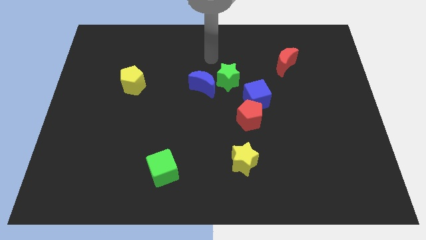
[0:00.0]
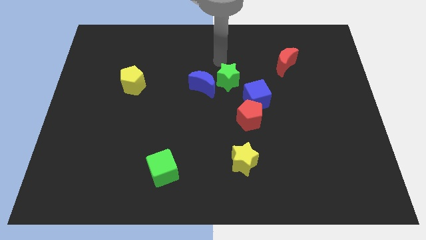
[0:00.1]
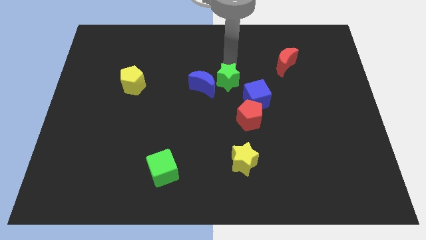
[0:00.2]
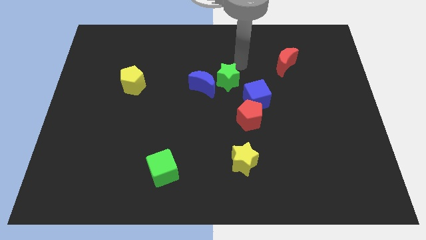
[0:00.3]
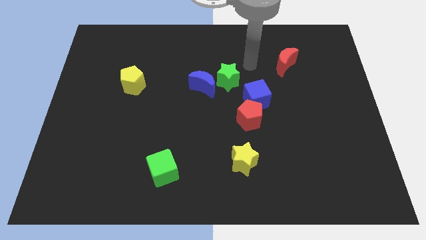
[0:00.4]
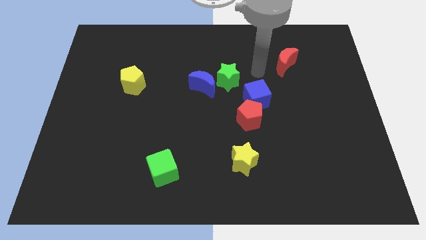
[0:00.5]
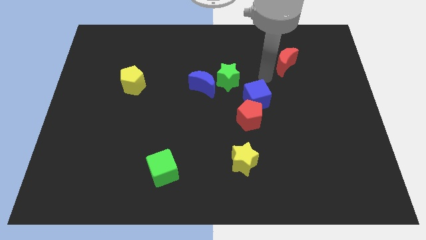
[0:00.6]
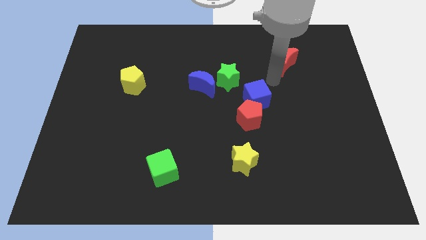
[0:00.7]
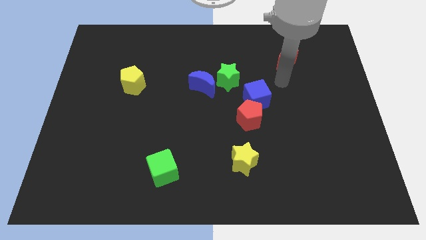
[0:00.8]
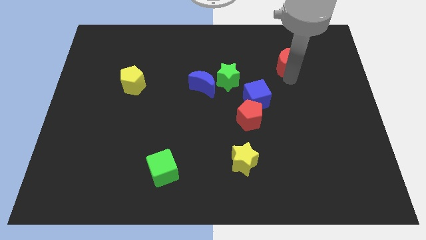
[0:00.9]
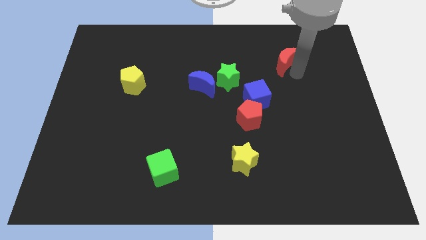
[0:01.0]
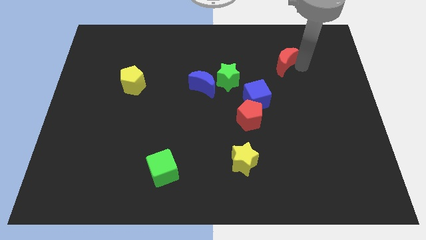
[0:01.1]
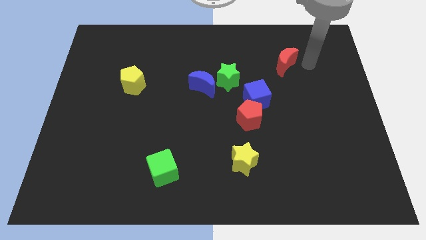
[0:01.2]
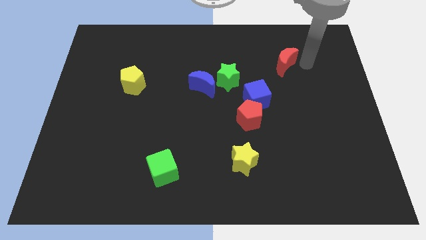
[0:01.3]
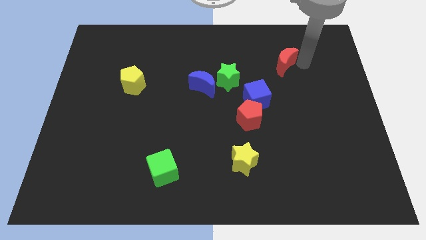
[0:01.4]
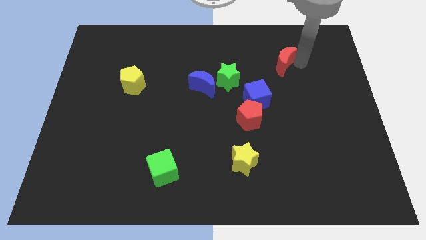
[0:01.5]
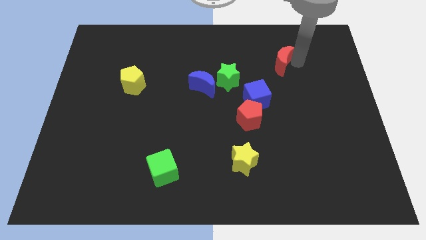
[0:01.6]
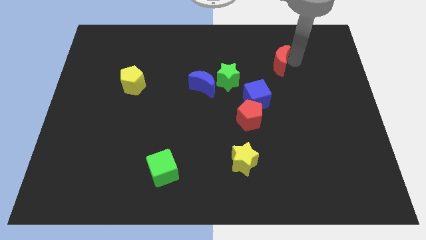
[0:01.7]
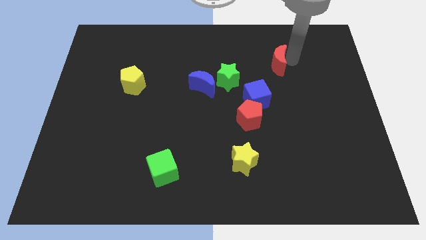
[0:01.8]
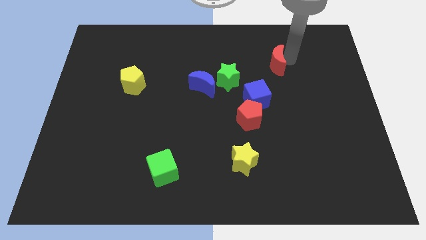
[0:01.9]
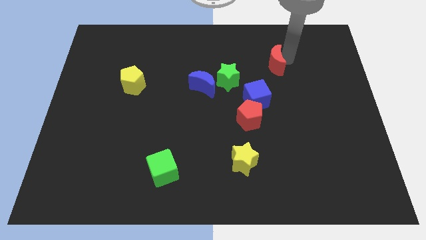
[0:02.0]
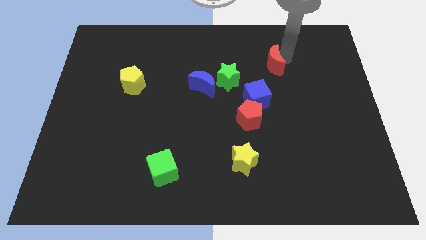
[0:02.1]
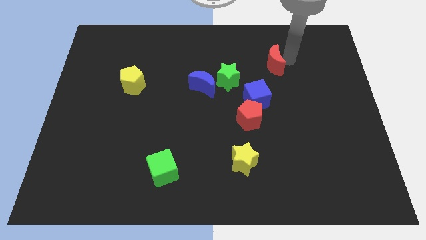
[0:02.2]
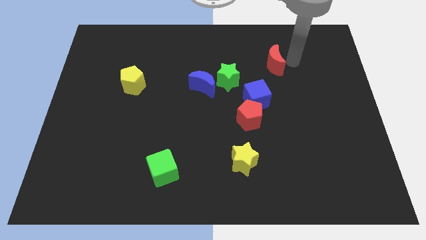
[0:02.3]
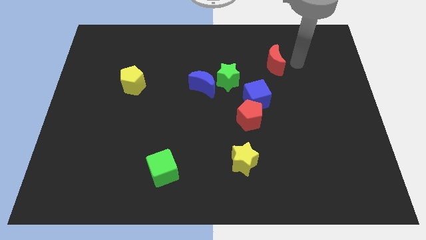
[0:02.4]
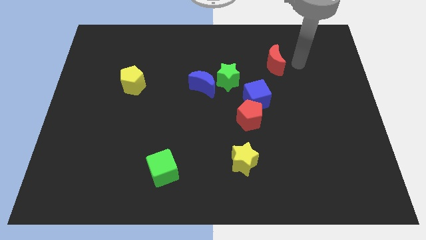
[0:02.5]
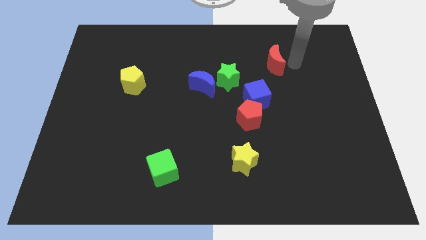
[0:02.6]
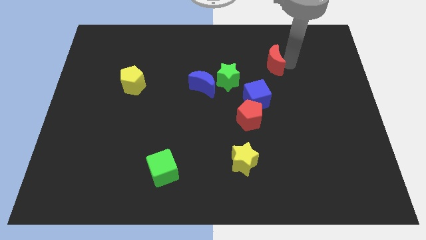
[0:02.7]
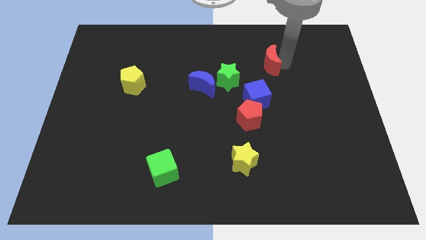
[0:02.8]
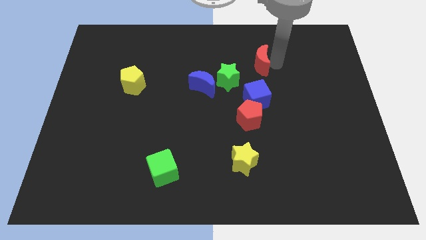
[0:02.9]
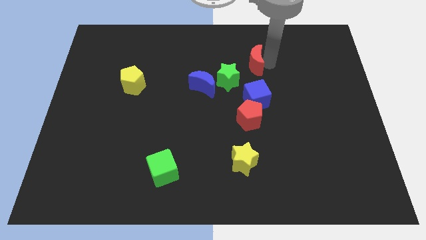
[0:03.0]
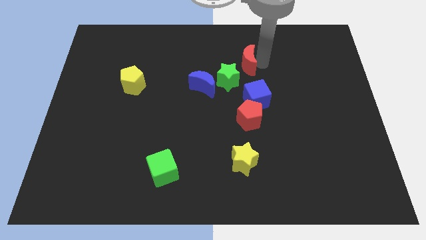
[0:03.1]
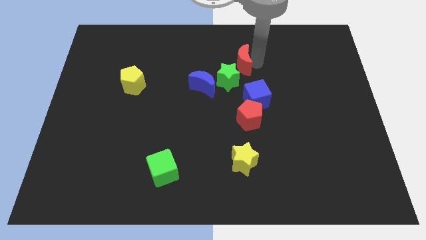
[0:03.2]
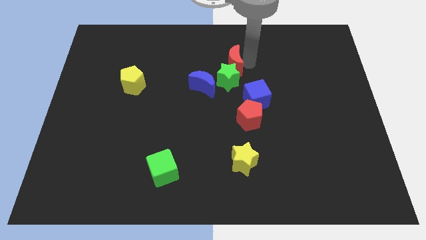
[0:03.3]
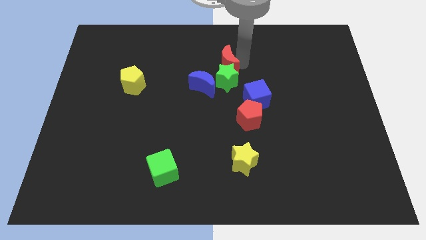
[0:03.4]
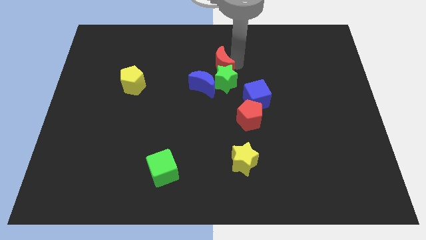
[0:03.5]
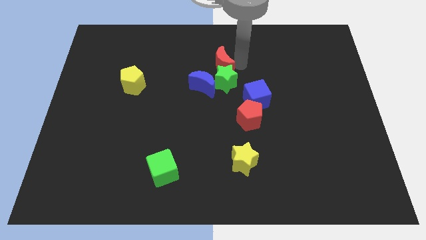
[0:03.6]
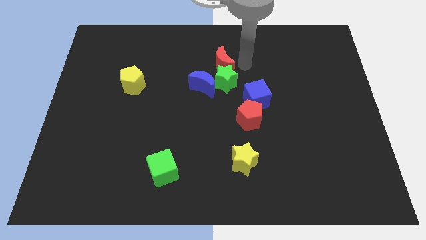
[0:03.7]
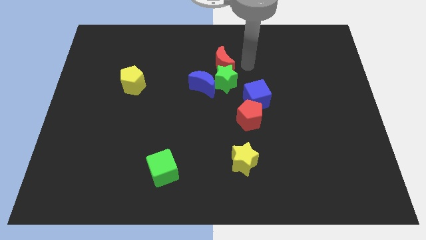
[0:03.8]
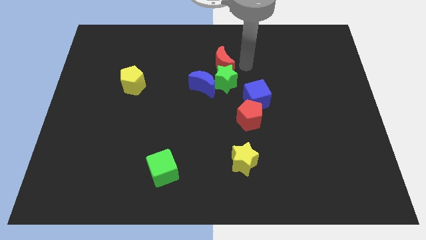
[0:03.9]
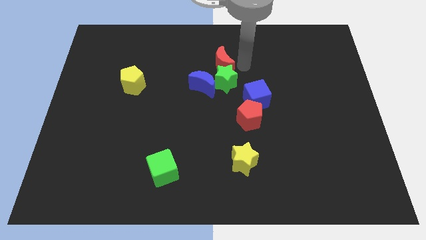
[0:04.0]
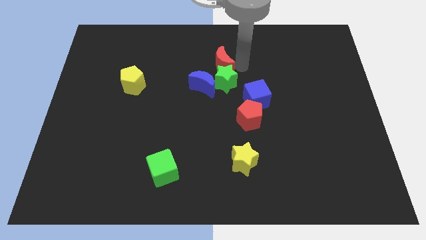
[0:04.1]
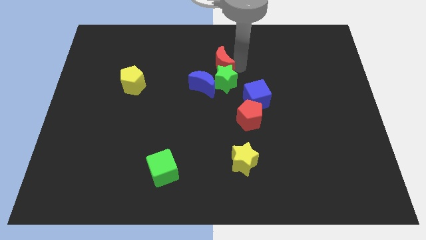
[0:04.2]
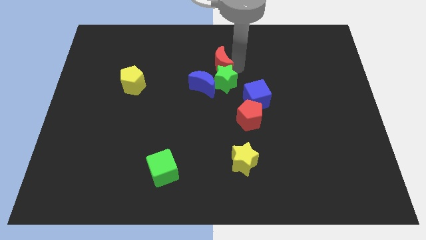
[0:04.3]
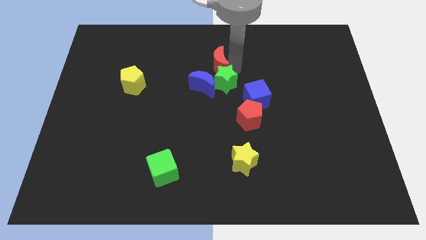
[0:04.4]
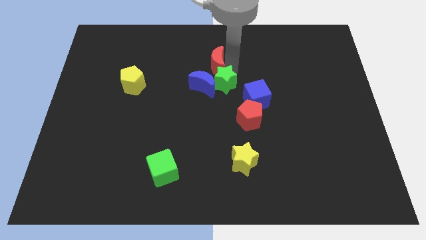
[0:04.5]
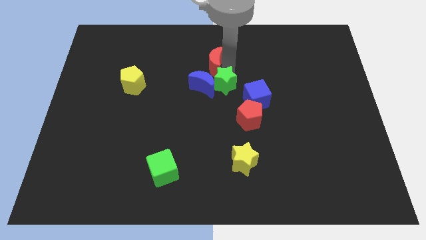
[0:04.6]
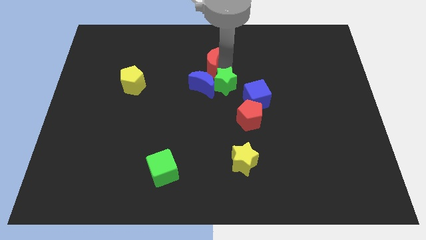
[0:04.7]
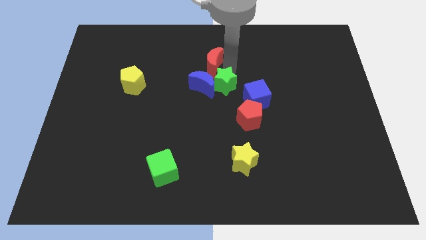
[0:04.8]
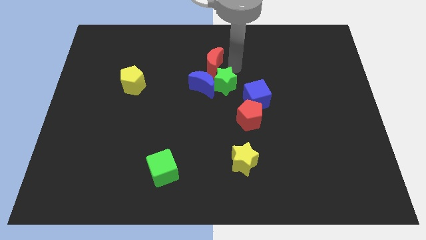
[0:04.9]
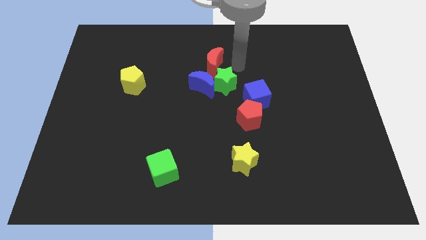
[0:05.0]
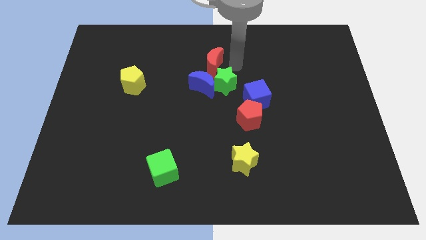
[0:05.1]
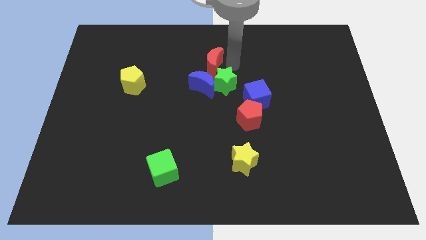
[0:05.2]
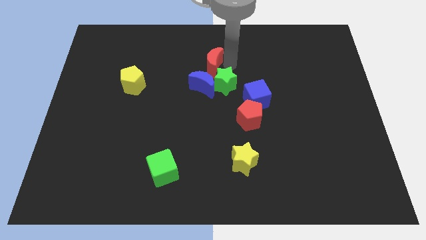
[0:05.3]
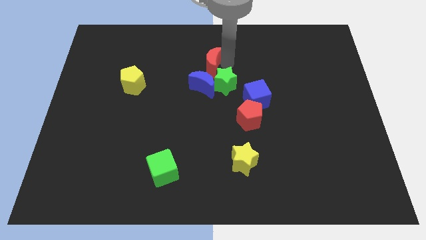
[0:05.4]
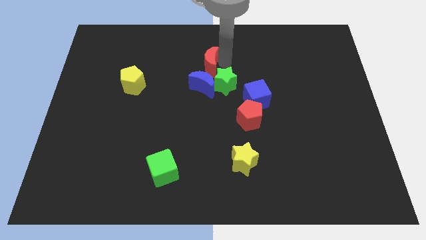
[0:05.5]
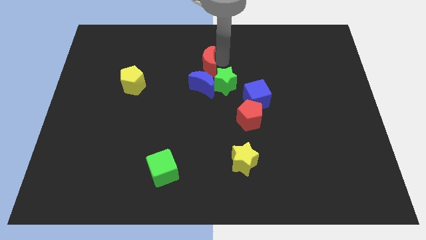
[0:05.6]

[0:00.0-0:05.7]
push the red moon left

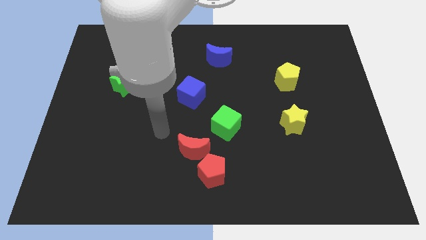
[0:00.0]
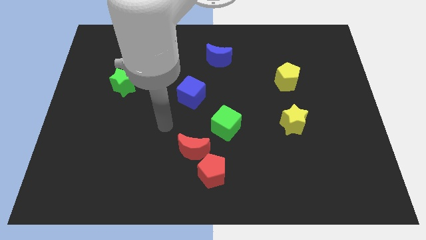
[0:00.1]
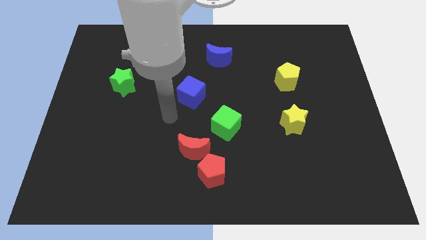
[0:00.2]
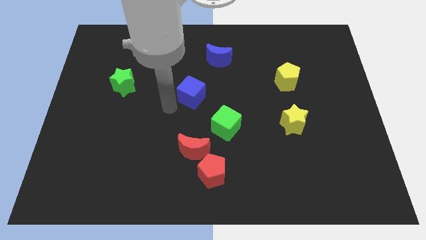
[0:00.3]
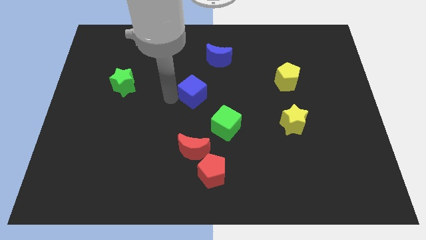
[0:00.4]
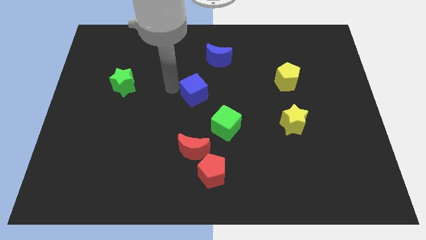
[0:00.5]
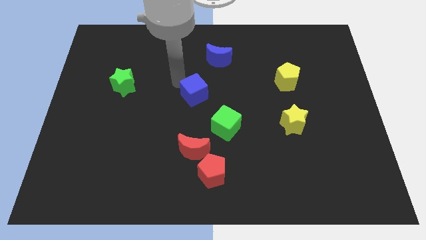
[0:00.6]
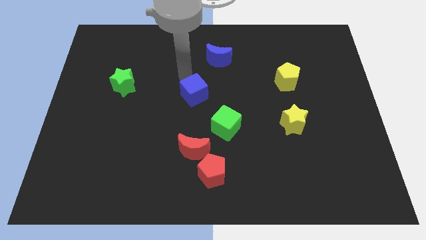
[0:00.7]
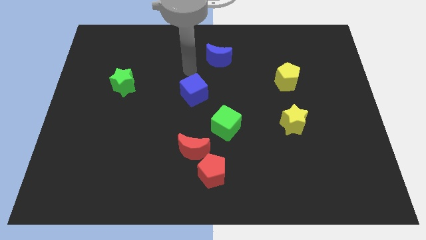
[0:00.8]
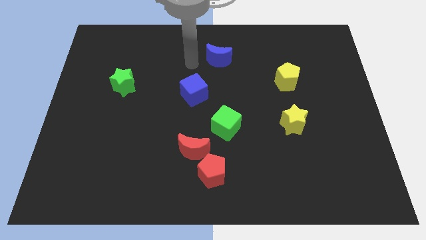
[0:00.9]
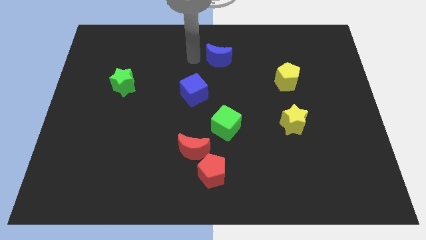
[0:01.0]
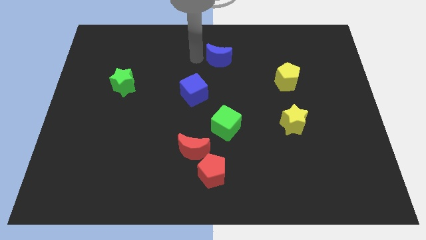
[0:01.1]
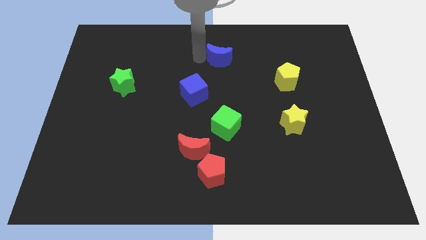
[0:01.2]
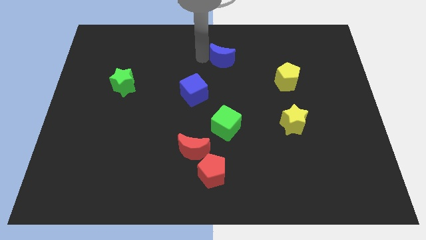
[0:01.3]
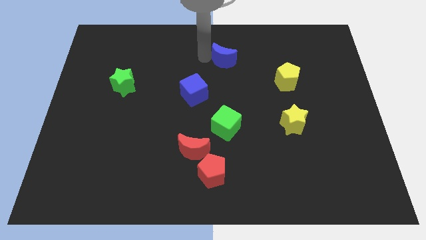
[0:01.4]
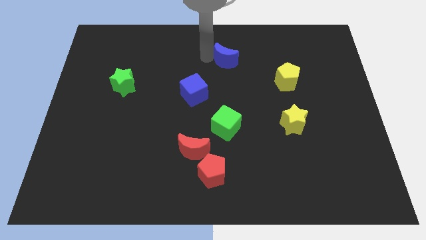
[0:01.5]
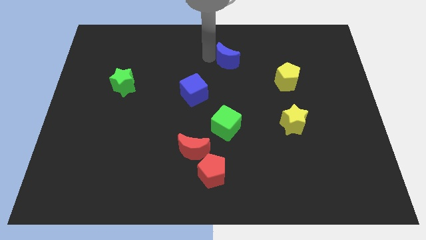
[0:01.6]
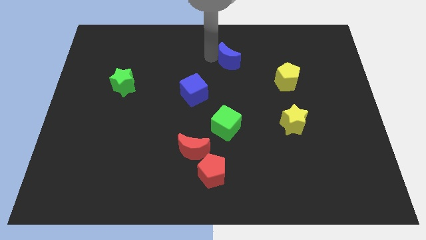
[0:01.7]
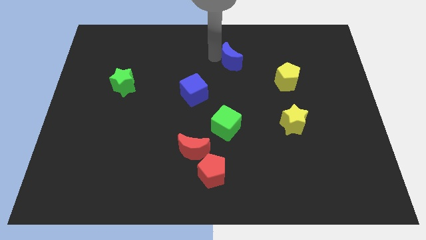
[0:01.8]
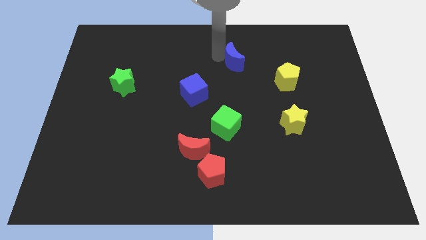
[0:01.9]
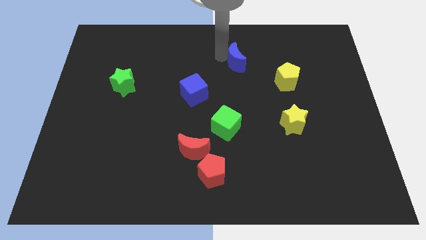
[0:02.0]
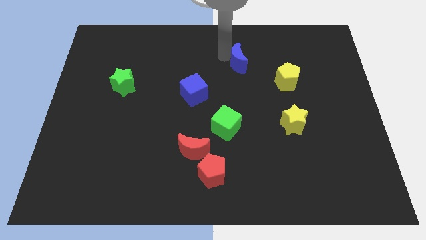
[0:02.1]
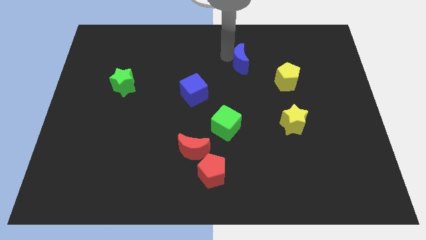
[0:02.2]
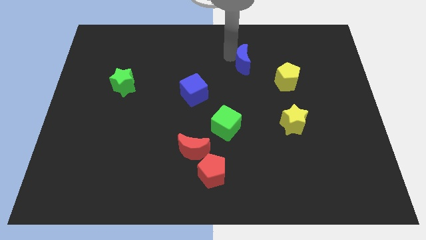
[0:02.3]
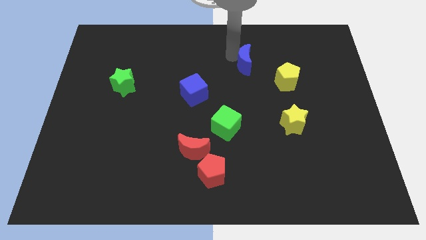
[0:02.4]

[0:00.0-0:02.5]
slide the blue moon a little bit right
